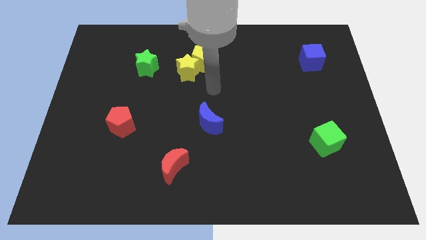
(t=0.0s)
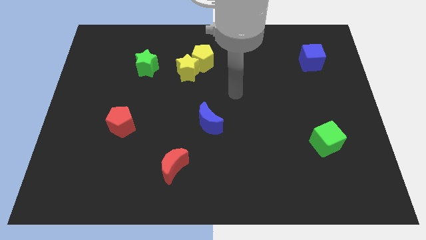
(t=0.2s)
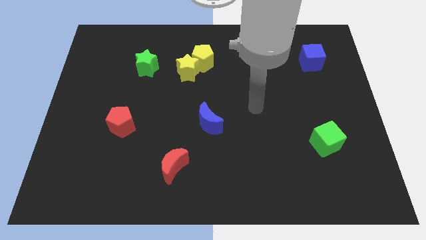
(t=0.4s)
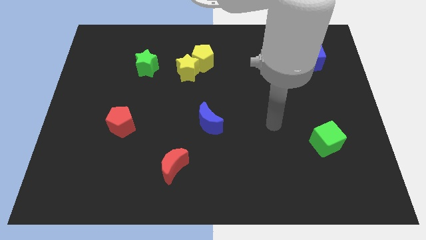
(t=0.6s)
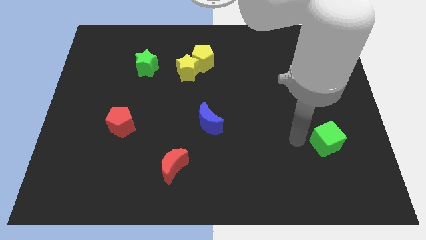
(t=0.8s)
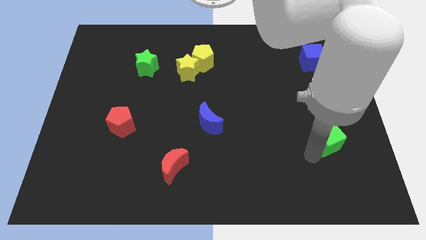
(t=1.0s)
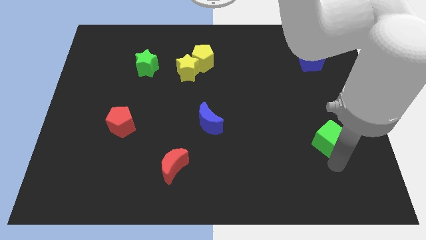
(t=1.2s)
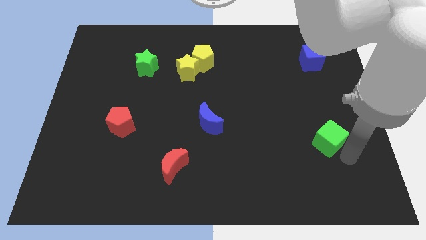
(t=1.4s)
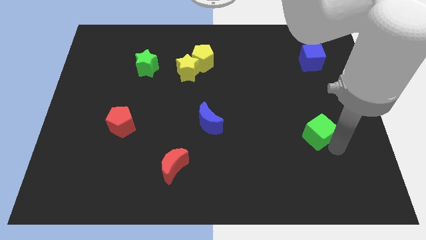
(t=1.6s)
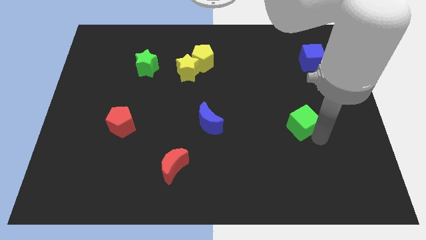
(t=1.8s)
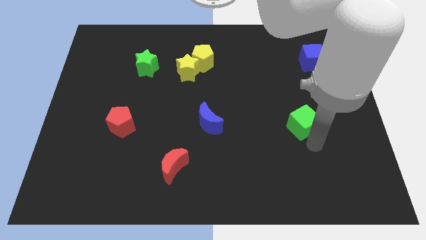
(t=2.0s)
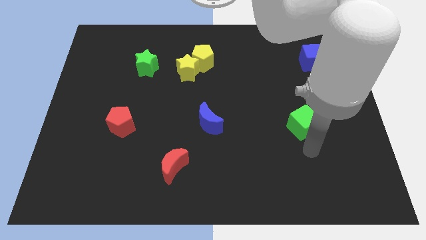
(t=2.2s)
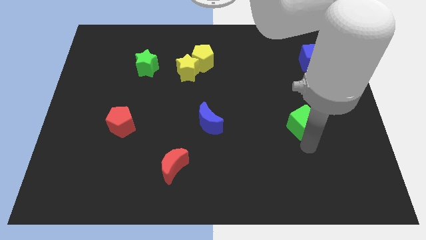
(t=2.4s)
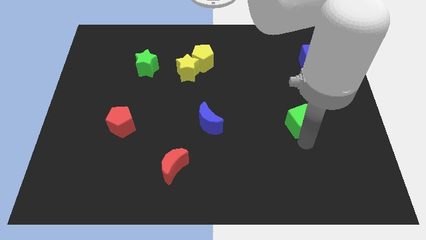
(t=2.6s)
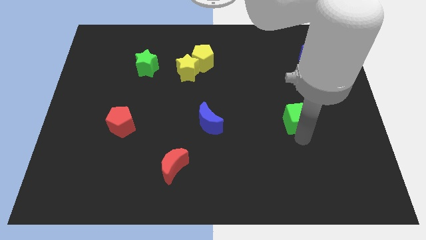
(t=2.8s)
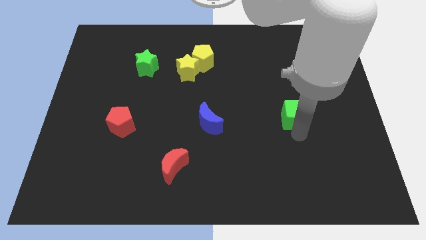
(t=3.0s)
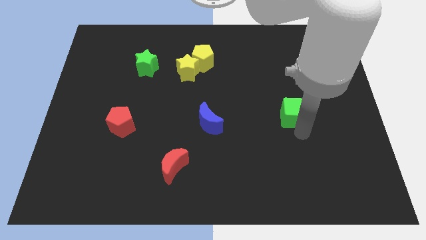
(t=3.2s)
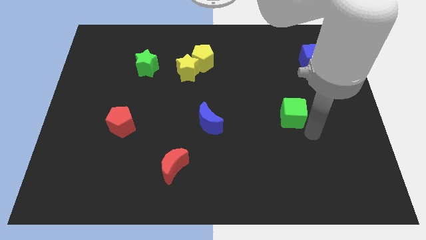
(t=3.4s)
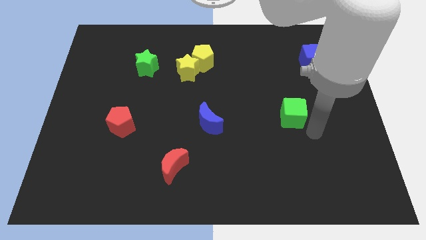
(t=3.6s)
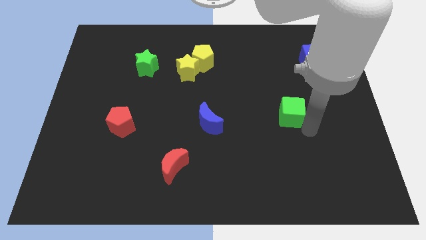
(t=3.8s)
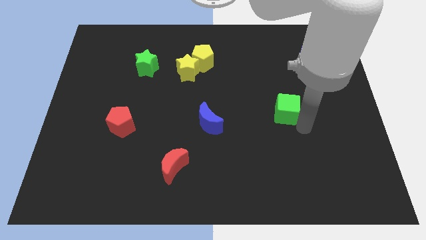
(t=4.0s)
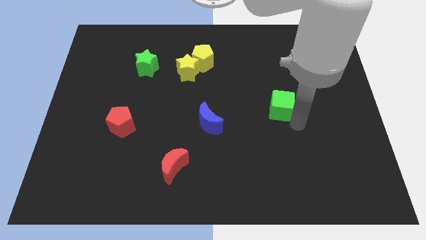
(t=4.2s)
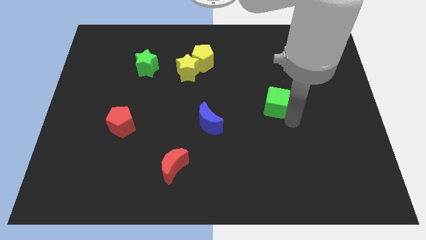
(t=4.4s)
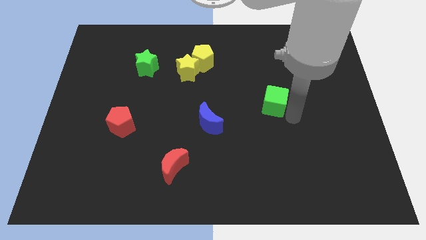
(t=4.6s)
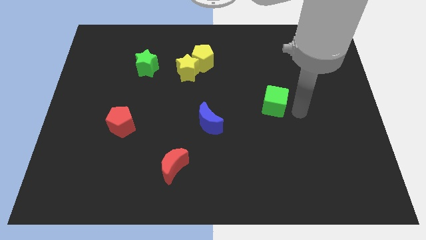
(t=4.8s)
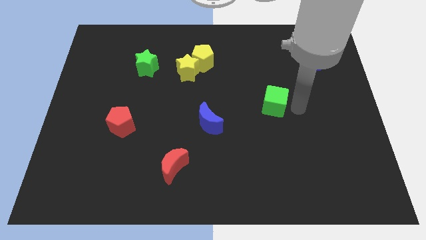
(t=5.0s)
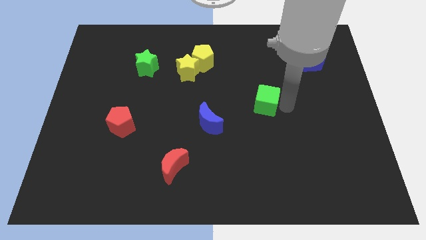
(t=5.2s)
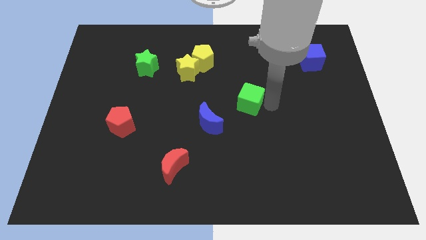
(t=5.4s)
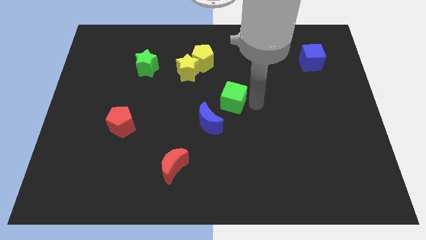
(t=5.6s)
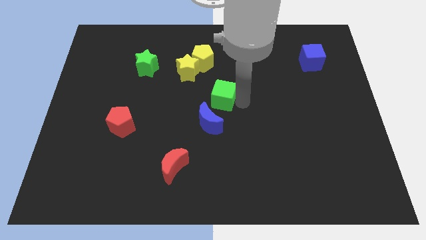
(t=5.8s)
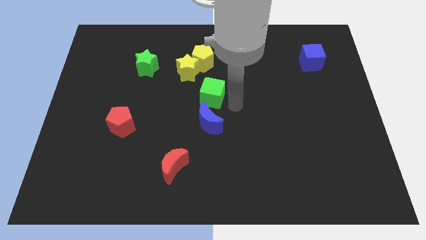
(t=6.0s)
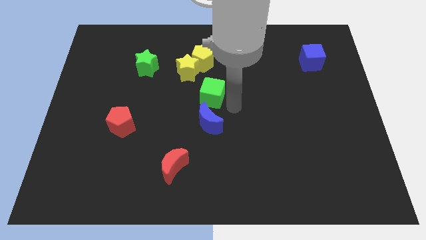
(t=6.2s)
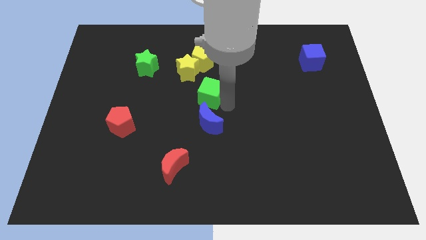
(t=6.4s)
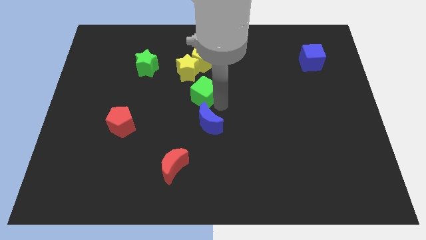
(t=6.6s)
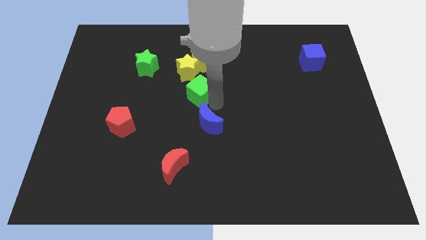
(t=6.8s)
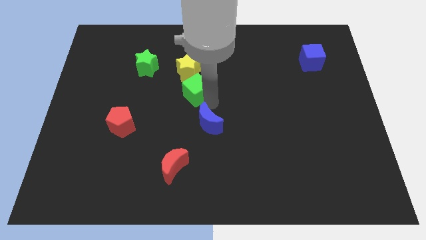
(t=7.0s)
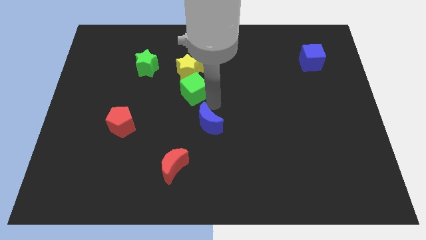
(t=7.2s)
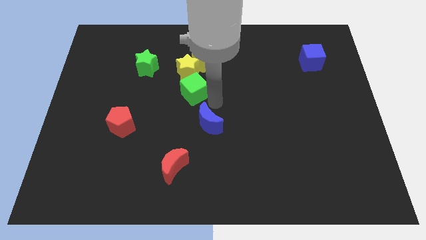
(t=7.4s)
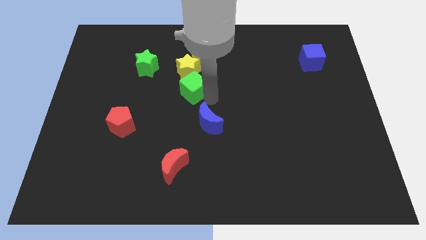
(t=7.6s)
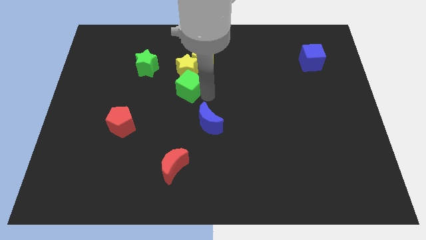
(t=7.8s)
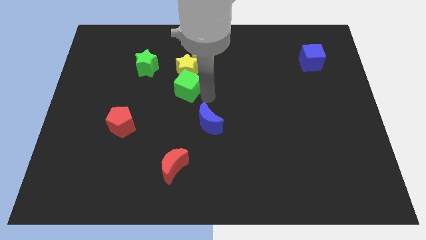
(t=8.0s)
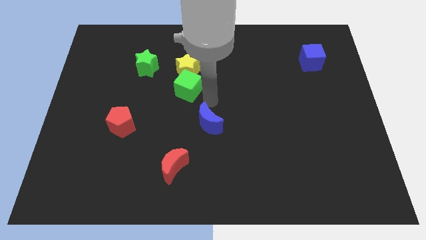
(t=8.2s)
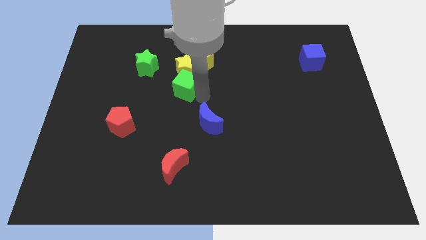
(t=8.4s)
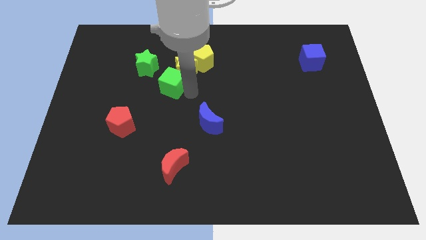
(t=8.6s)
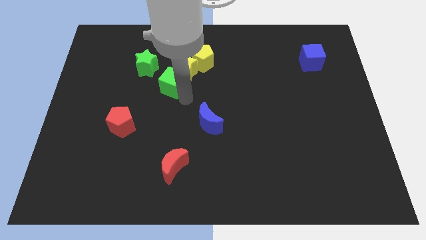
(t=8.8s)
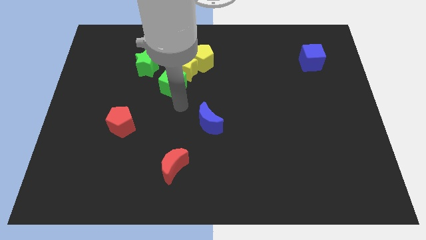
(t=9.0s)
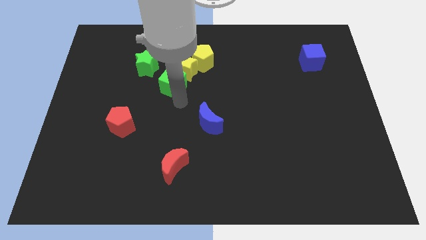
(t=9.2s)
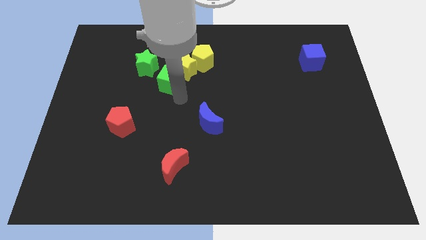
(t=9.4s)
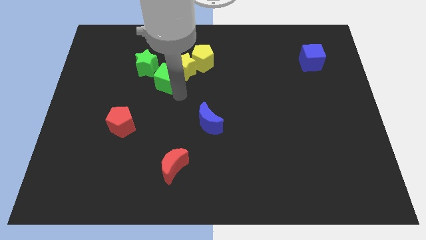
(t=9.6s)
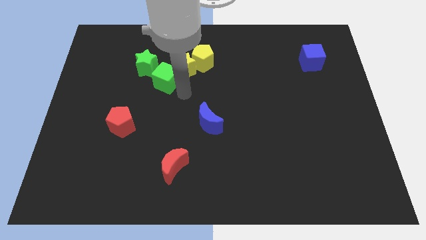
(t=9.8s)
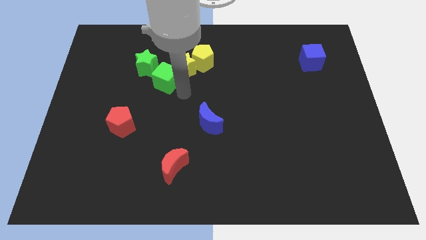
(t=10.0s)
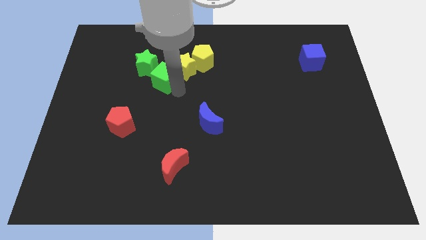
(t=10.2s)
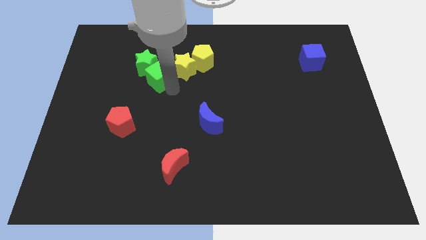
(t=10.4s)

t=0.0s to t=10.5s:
slide the green cube towards the green star
